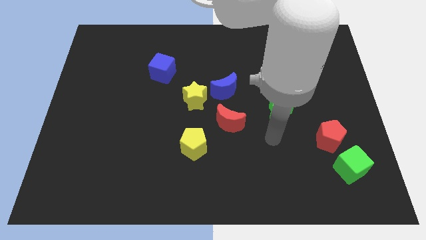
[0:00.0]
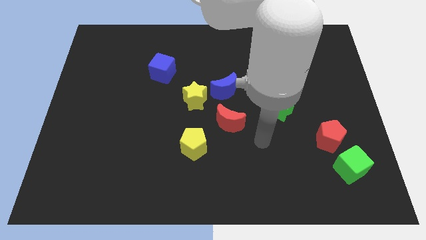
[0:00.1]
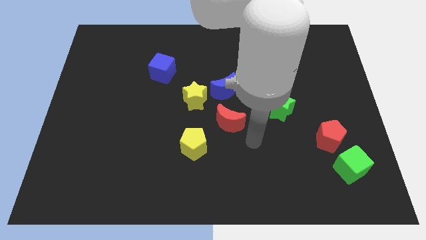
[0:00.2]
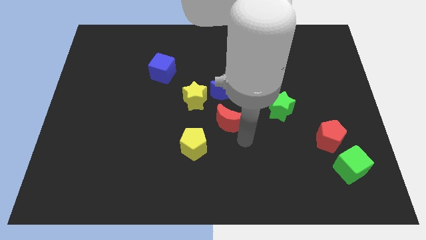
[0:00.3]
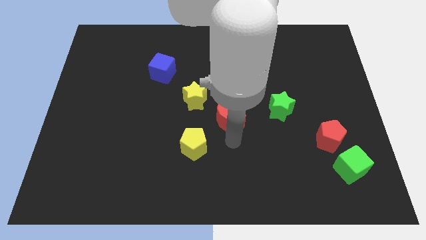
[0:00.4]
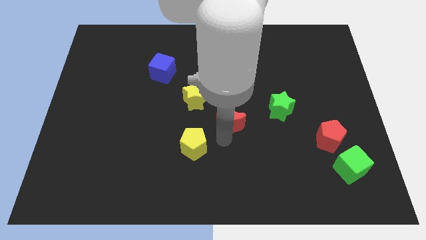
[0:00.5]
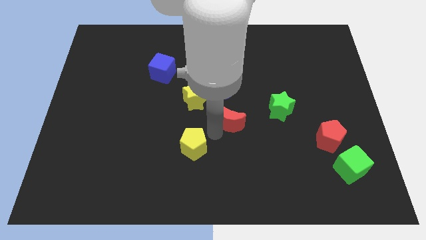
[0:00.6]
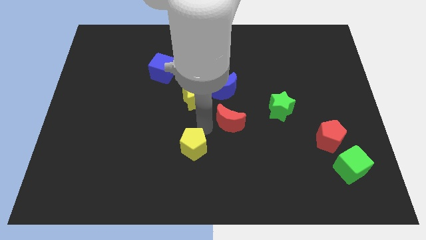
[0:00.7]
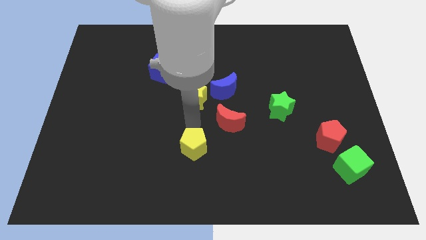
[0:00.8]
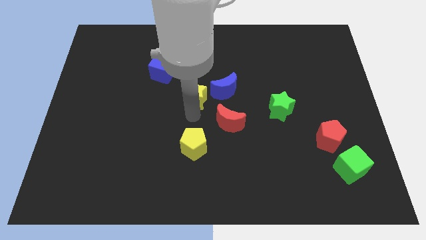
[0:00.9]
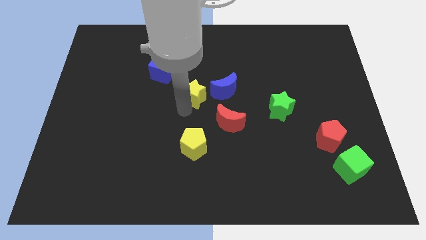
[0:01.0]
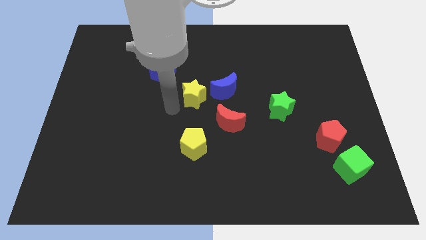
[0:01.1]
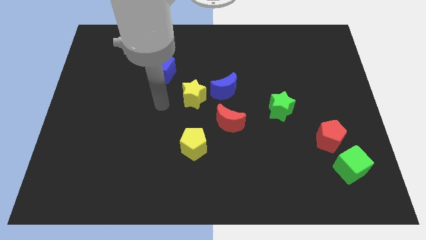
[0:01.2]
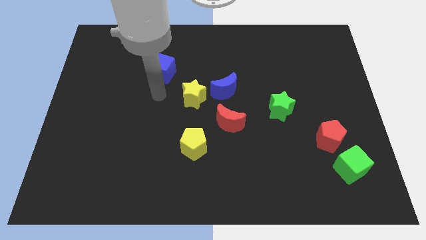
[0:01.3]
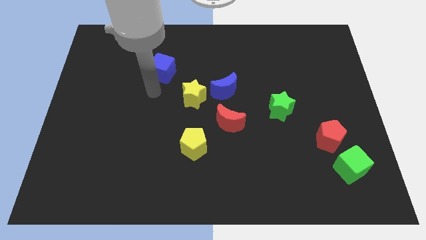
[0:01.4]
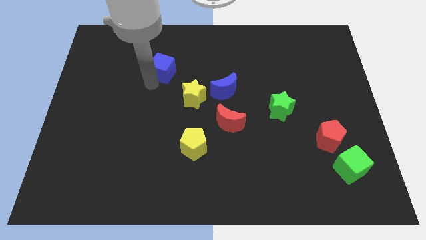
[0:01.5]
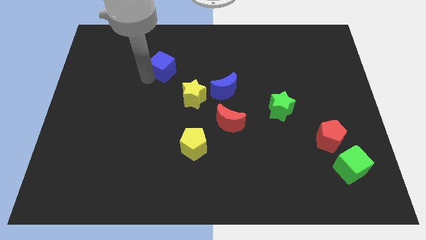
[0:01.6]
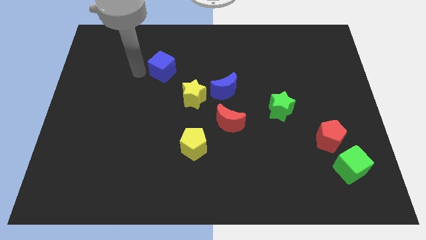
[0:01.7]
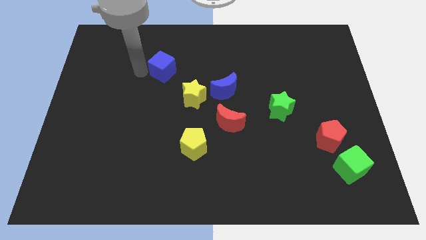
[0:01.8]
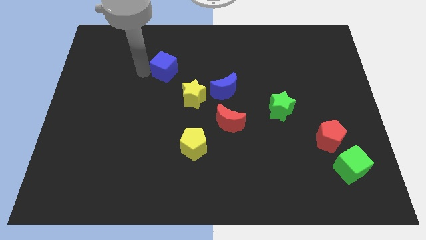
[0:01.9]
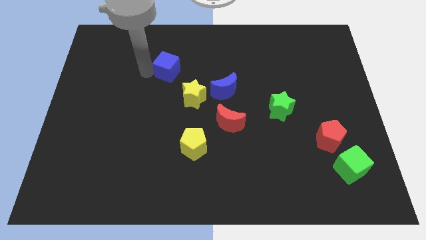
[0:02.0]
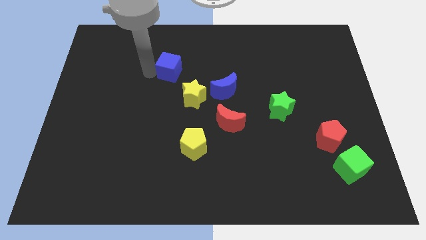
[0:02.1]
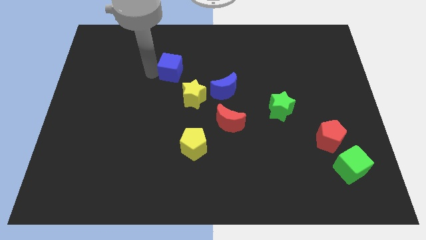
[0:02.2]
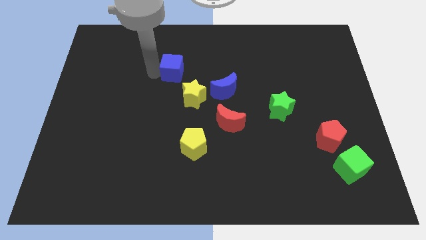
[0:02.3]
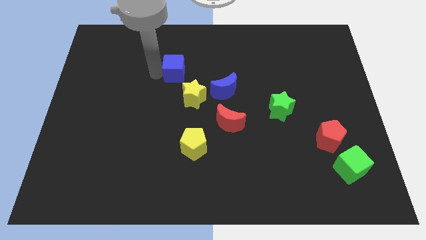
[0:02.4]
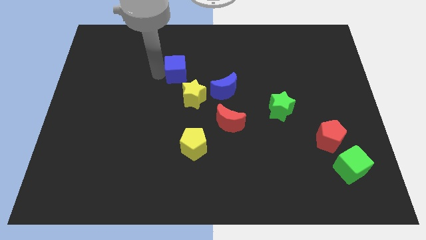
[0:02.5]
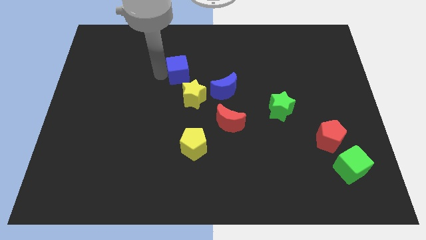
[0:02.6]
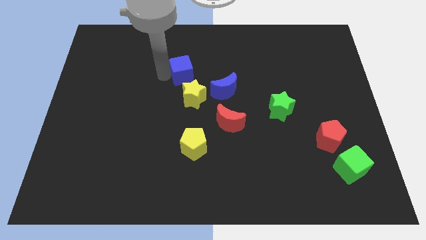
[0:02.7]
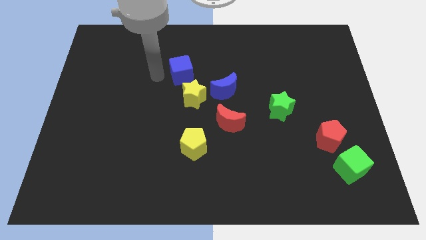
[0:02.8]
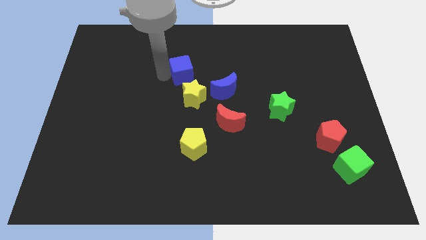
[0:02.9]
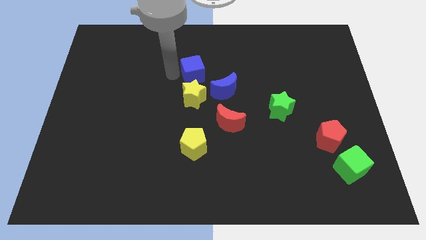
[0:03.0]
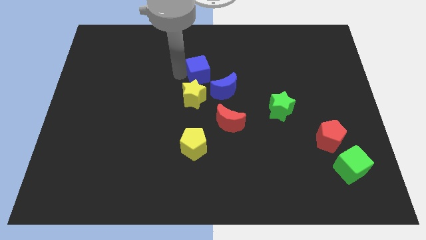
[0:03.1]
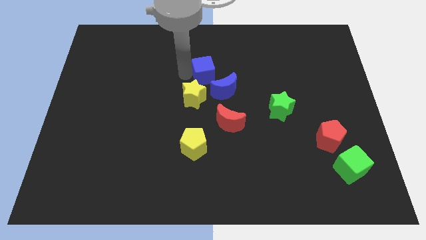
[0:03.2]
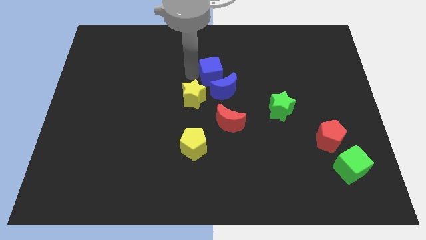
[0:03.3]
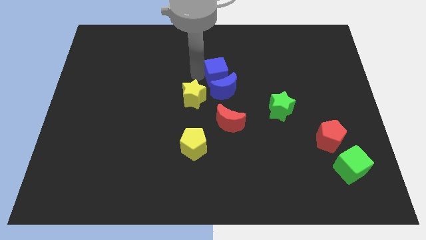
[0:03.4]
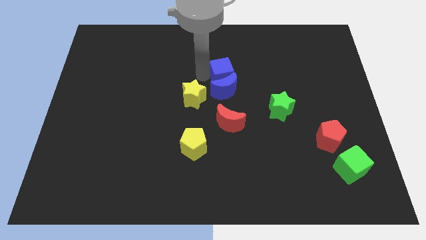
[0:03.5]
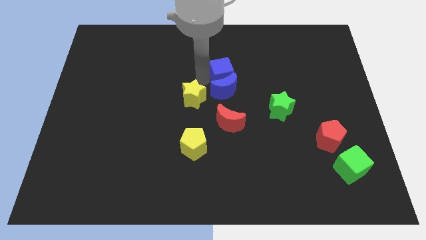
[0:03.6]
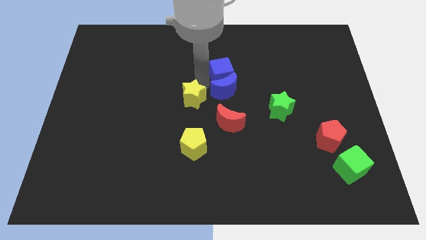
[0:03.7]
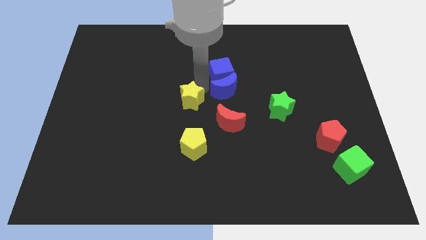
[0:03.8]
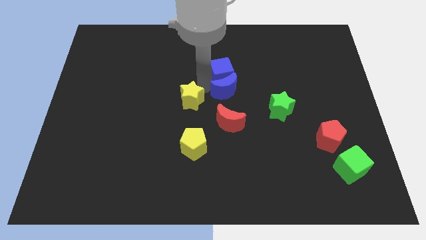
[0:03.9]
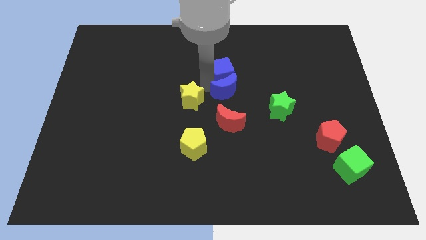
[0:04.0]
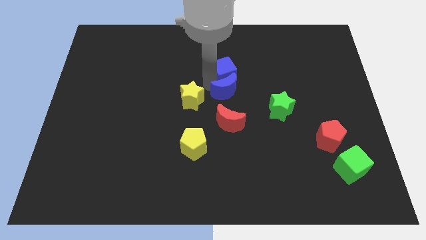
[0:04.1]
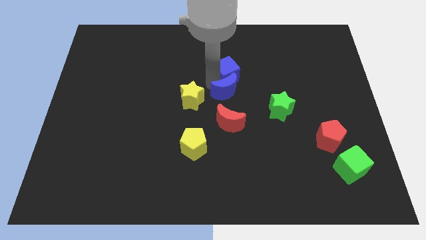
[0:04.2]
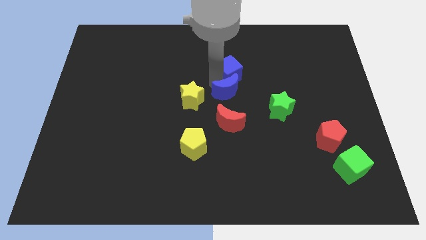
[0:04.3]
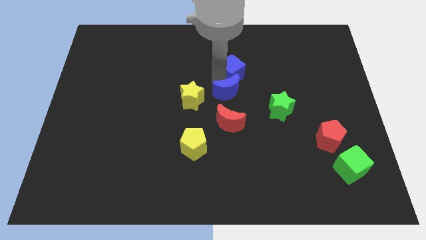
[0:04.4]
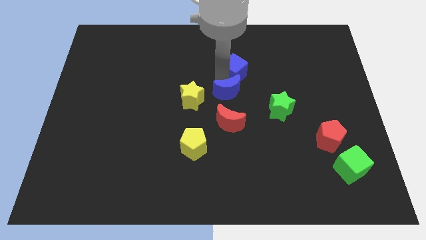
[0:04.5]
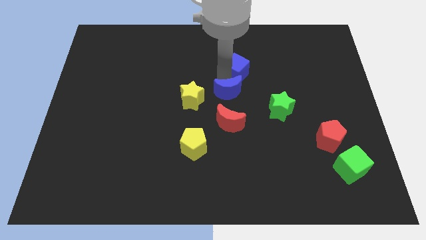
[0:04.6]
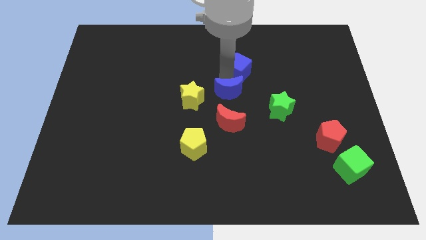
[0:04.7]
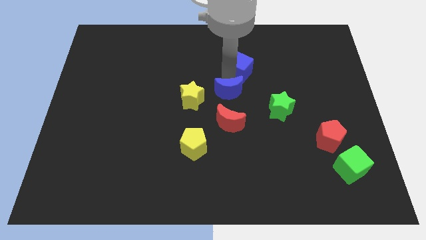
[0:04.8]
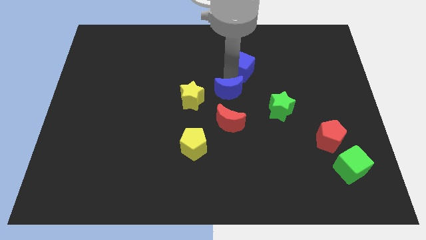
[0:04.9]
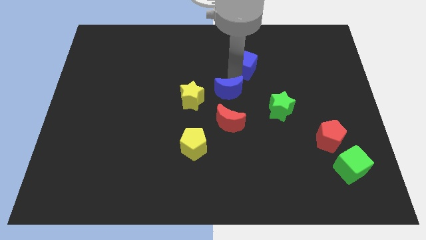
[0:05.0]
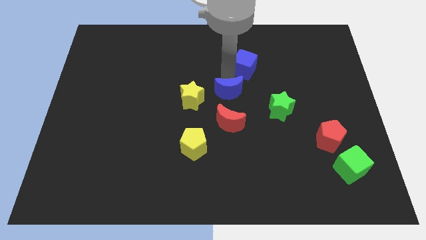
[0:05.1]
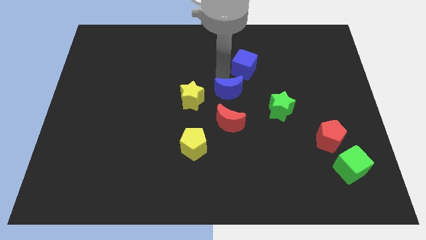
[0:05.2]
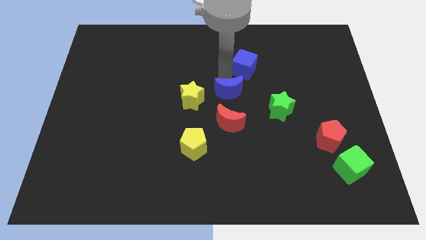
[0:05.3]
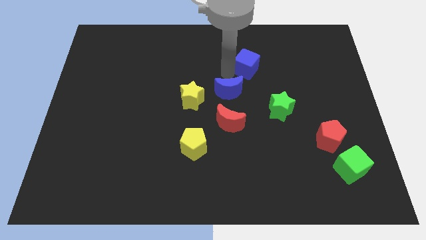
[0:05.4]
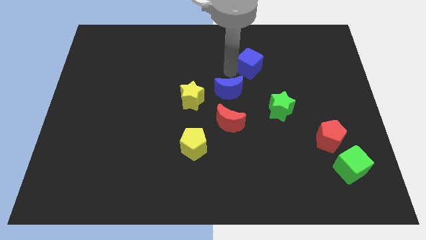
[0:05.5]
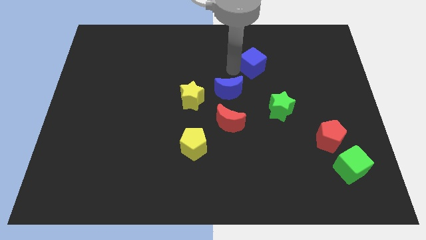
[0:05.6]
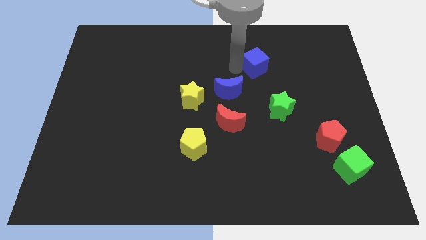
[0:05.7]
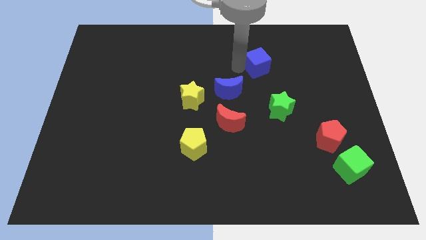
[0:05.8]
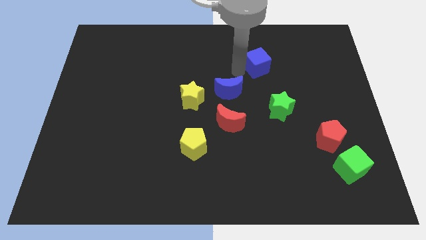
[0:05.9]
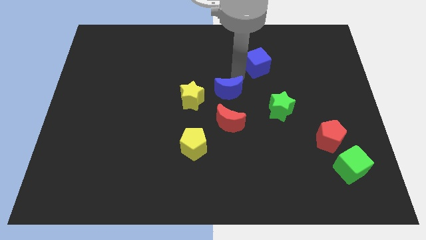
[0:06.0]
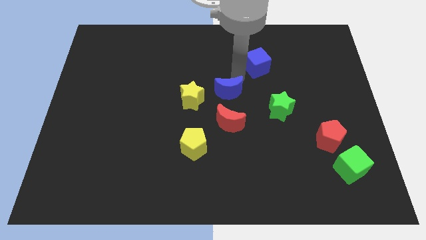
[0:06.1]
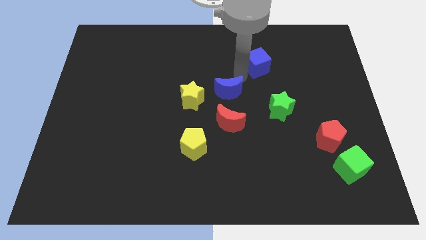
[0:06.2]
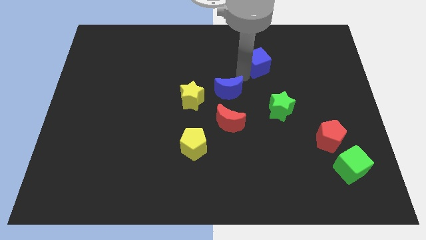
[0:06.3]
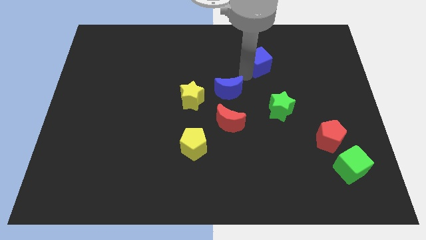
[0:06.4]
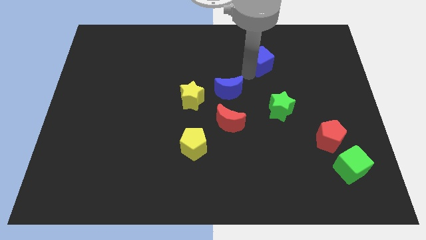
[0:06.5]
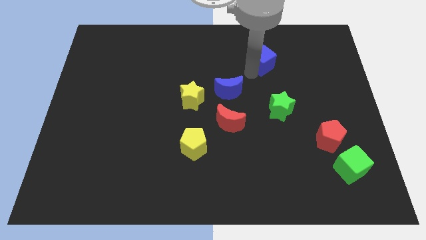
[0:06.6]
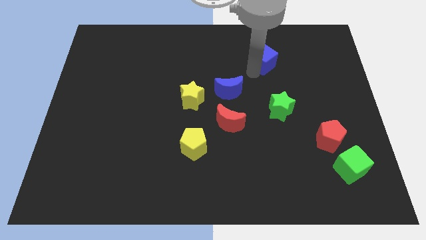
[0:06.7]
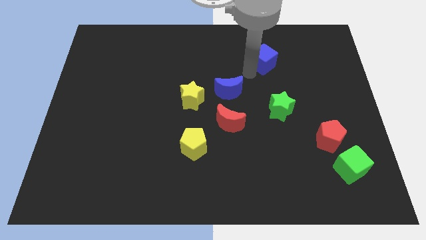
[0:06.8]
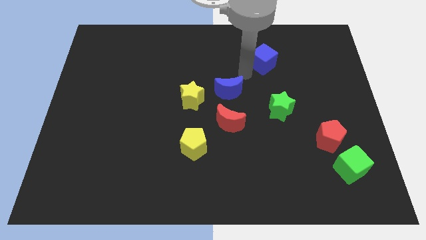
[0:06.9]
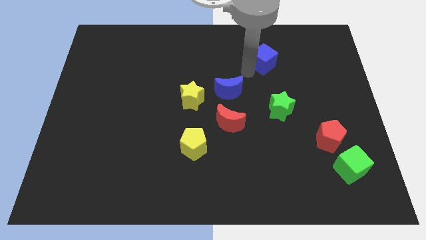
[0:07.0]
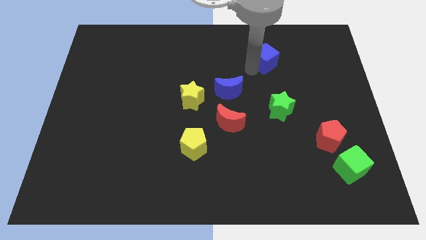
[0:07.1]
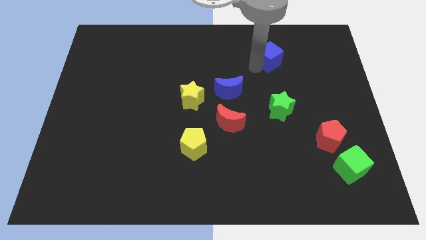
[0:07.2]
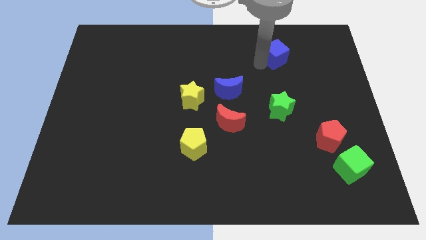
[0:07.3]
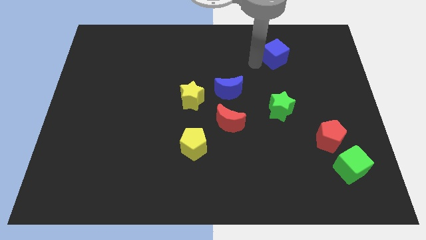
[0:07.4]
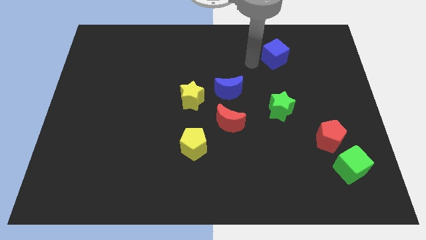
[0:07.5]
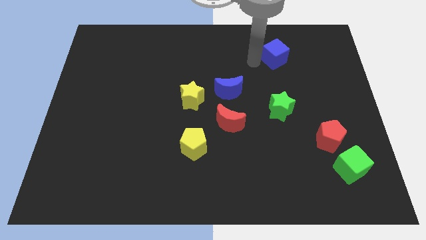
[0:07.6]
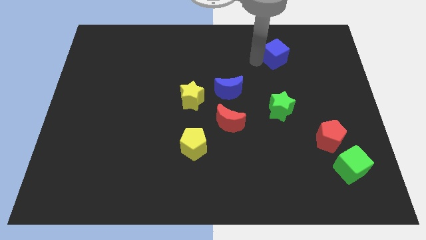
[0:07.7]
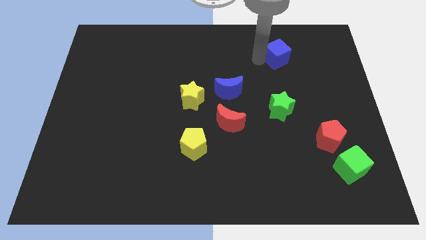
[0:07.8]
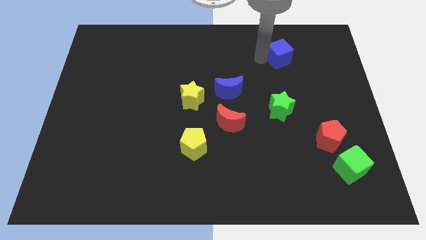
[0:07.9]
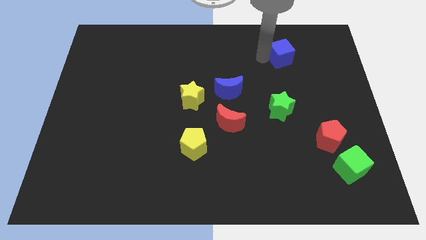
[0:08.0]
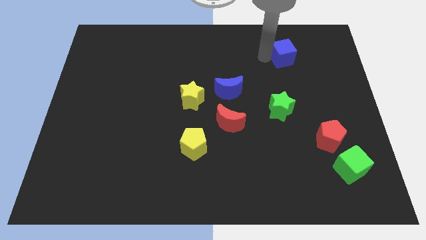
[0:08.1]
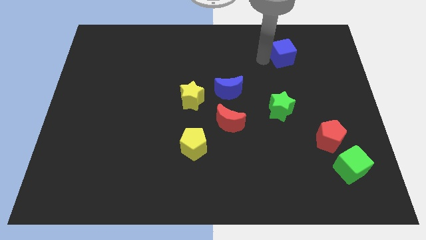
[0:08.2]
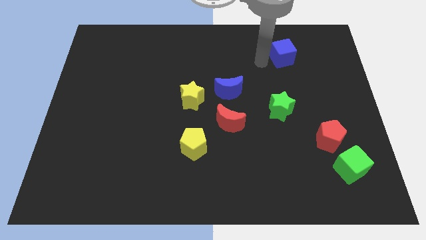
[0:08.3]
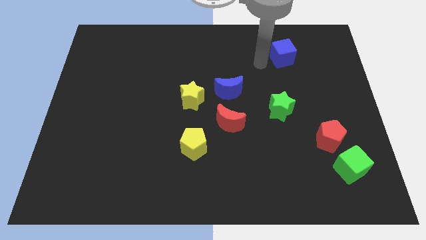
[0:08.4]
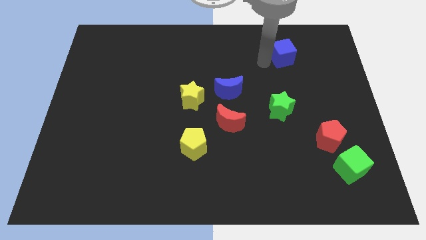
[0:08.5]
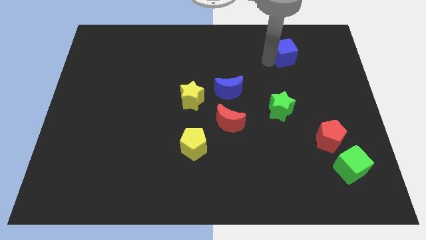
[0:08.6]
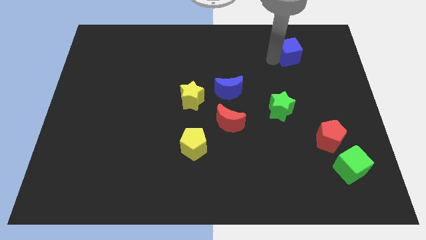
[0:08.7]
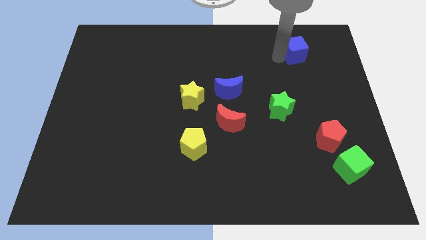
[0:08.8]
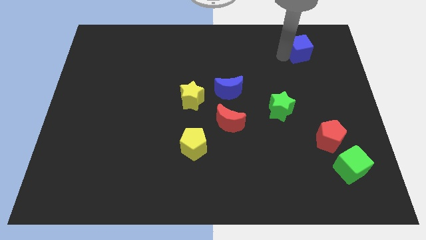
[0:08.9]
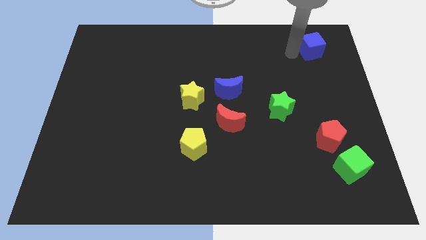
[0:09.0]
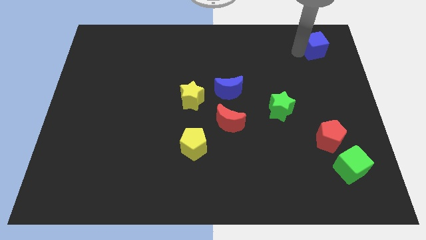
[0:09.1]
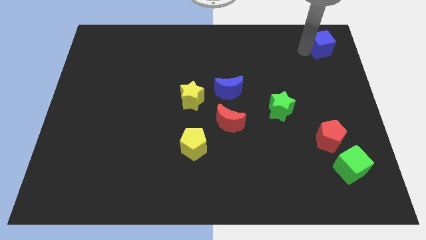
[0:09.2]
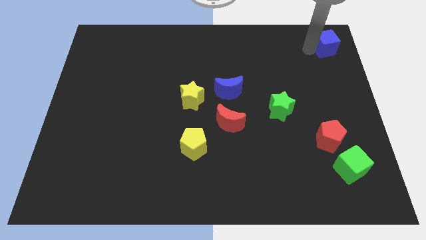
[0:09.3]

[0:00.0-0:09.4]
put the blue cube to the top right of the board
